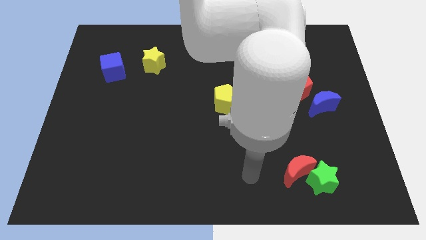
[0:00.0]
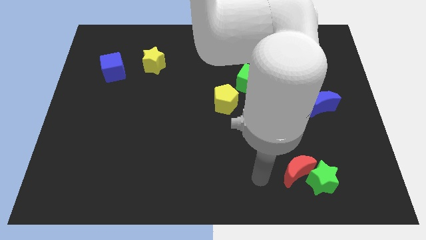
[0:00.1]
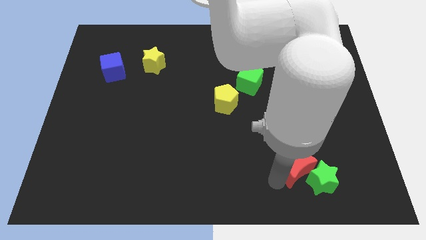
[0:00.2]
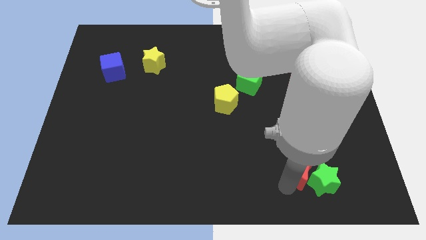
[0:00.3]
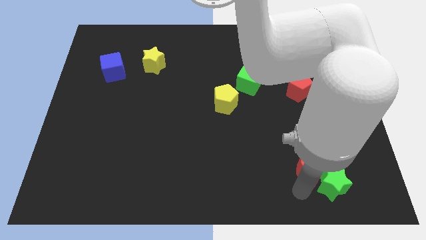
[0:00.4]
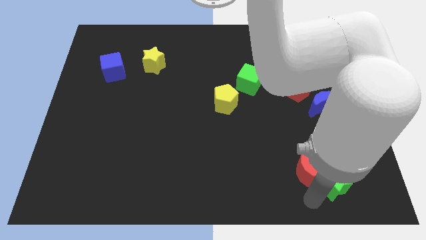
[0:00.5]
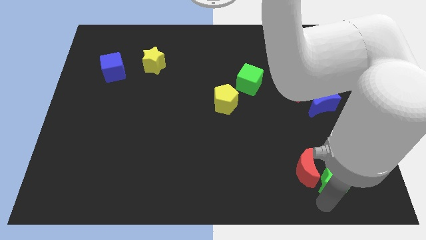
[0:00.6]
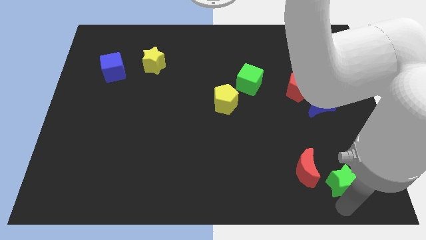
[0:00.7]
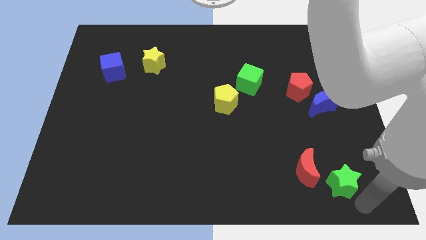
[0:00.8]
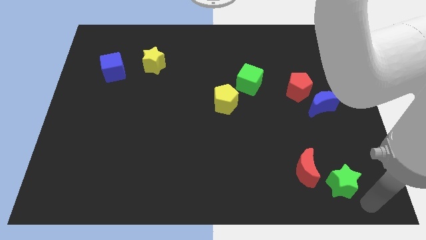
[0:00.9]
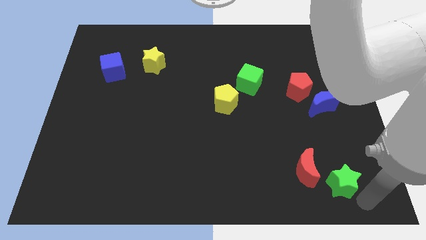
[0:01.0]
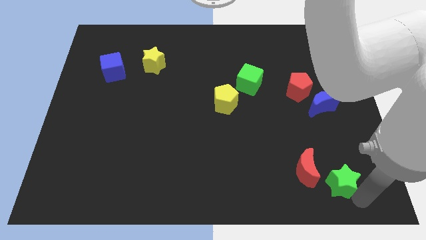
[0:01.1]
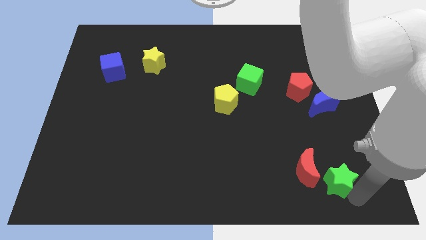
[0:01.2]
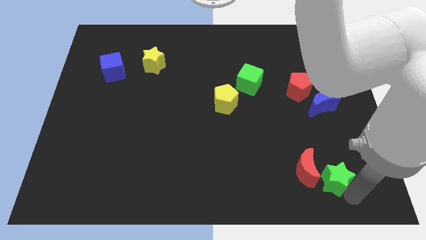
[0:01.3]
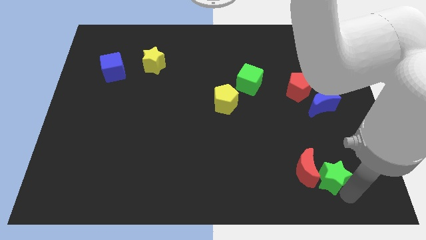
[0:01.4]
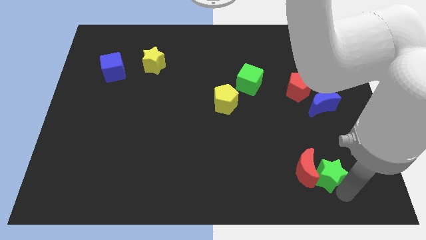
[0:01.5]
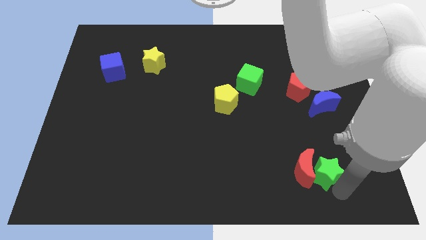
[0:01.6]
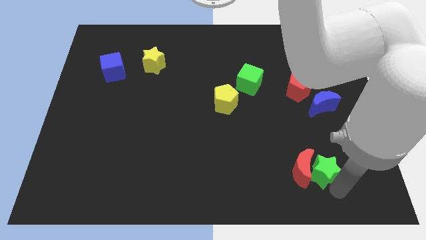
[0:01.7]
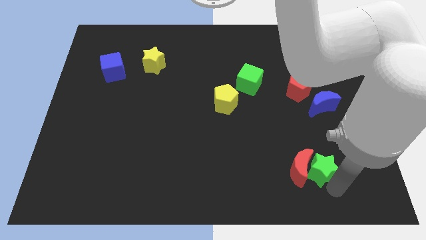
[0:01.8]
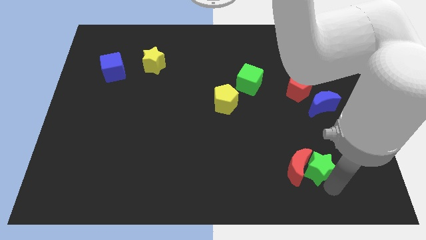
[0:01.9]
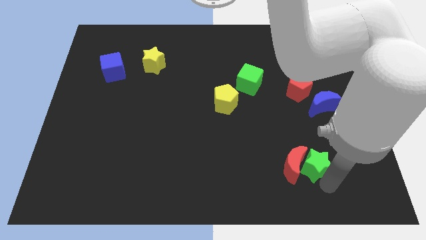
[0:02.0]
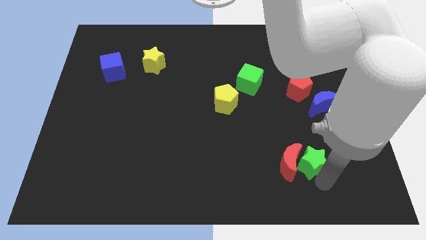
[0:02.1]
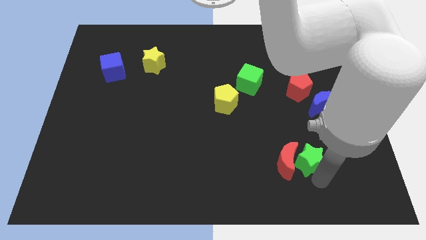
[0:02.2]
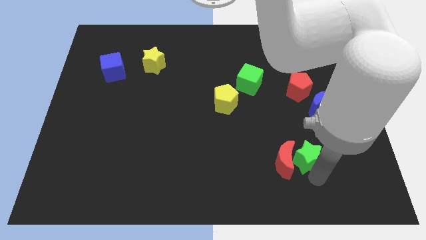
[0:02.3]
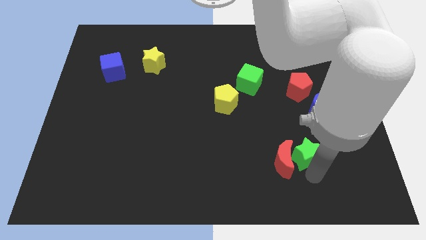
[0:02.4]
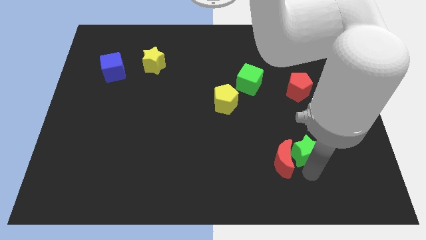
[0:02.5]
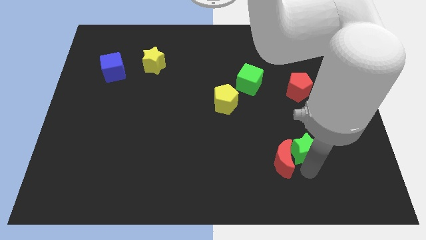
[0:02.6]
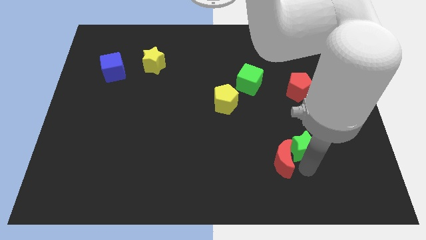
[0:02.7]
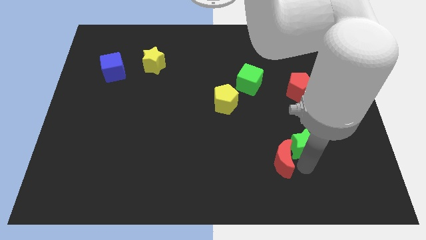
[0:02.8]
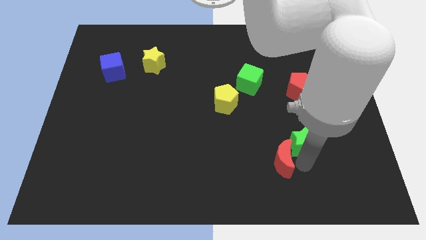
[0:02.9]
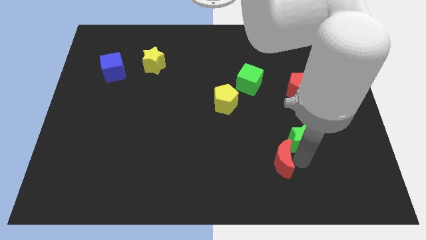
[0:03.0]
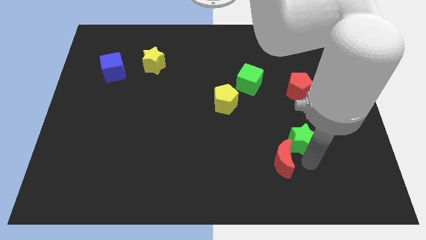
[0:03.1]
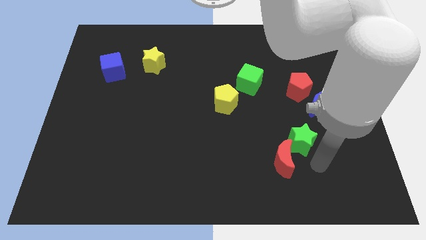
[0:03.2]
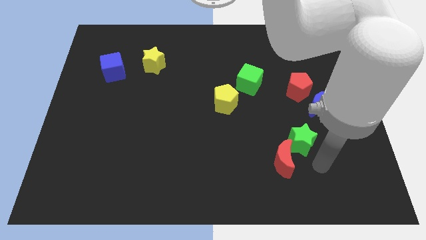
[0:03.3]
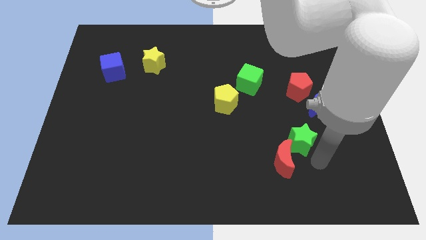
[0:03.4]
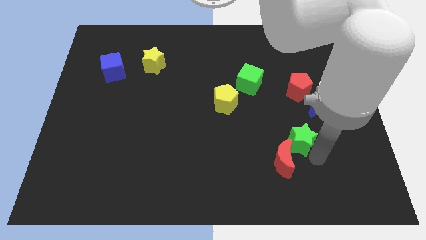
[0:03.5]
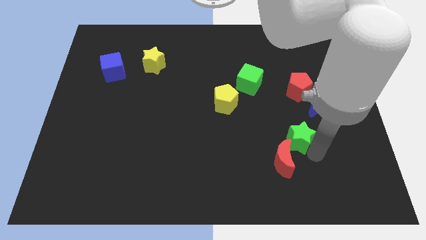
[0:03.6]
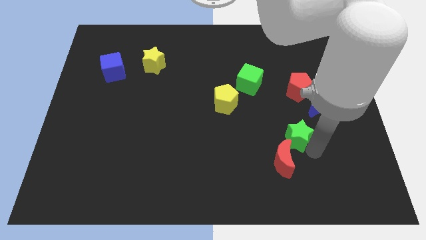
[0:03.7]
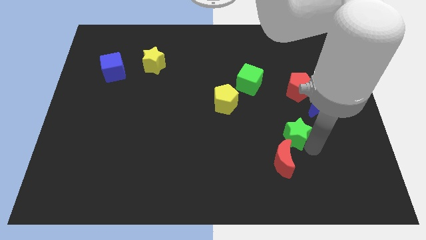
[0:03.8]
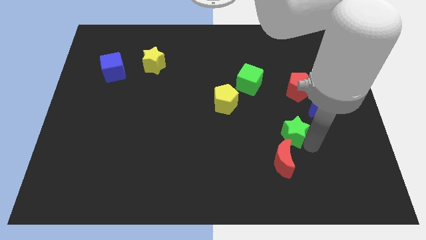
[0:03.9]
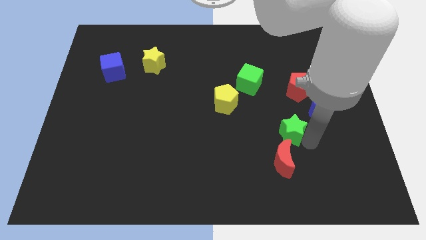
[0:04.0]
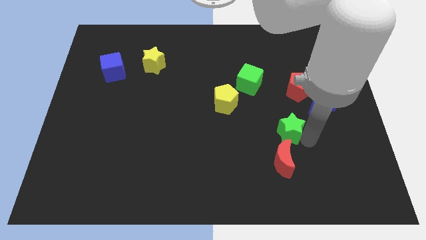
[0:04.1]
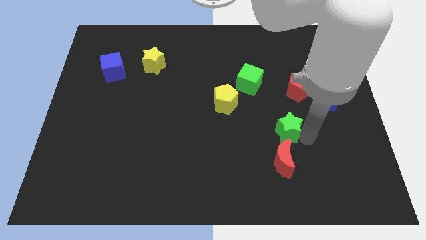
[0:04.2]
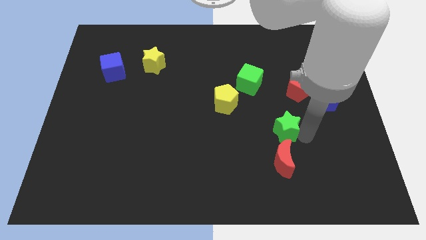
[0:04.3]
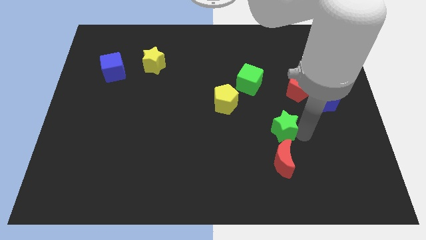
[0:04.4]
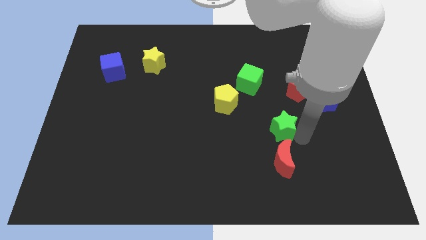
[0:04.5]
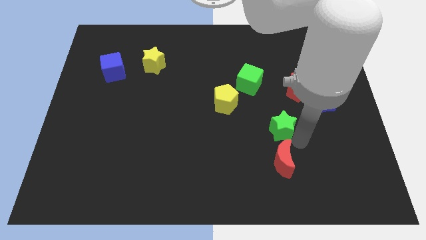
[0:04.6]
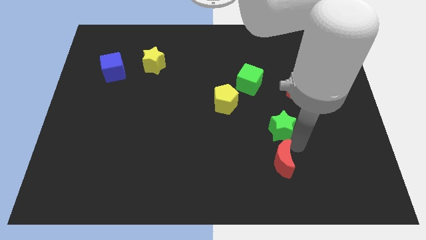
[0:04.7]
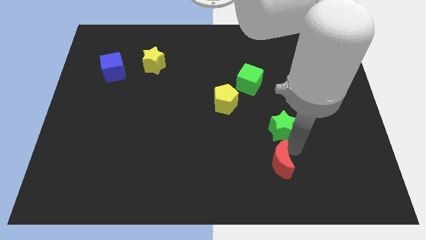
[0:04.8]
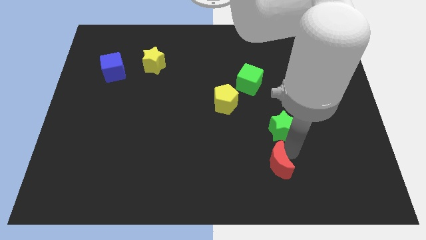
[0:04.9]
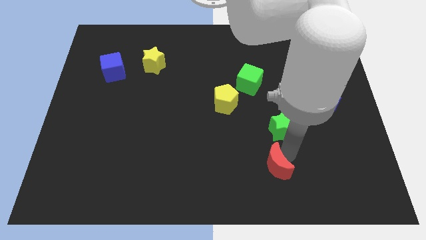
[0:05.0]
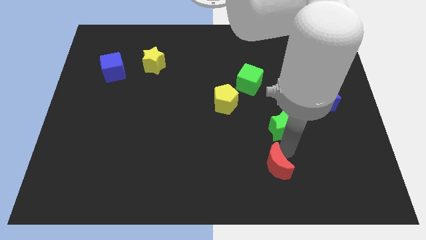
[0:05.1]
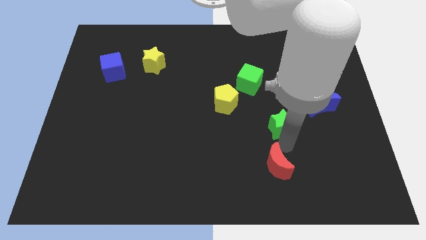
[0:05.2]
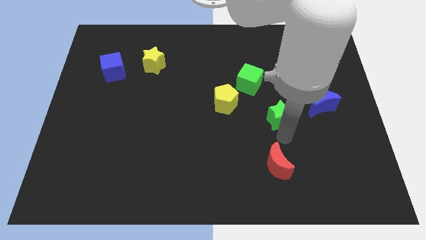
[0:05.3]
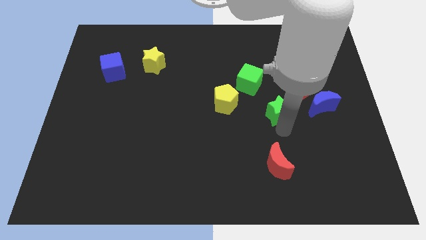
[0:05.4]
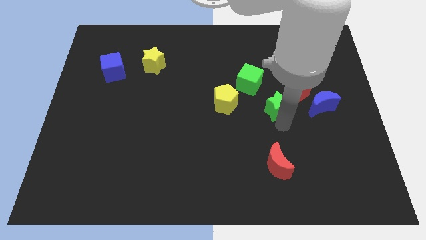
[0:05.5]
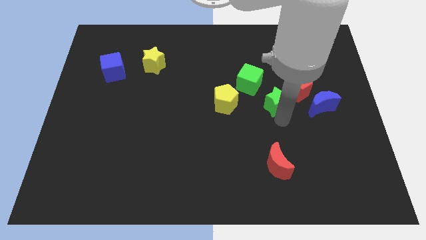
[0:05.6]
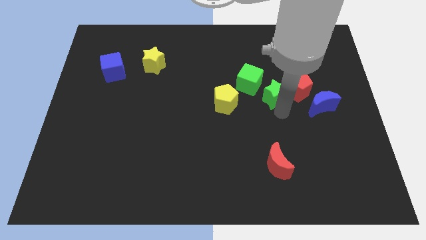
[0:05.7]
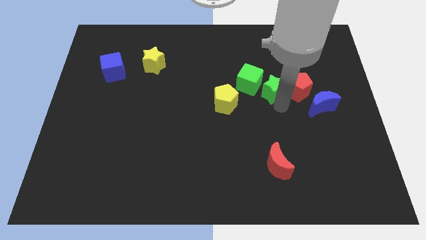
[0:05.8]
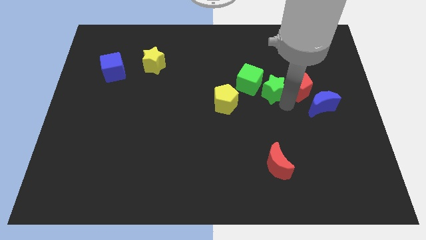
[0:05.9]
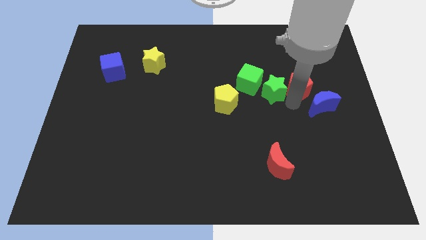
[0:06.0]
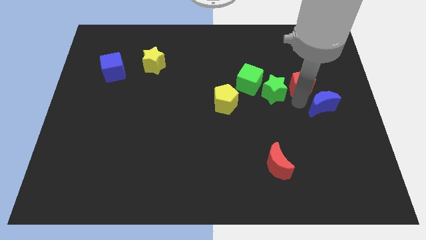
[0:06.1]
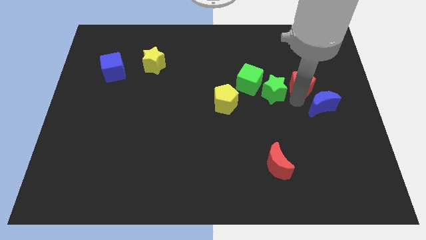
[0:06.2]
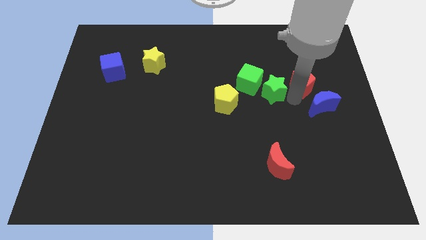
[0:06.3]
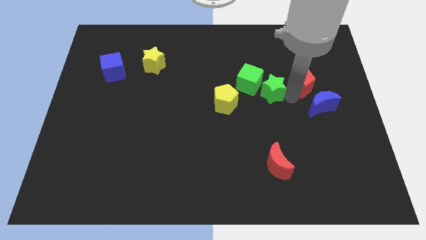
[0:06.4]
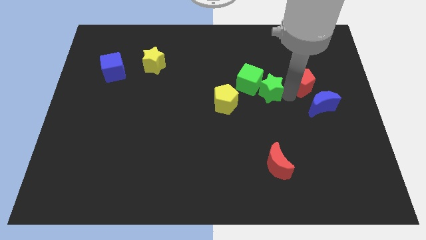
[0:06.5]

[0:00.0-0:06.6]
slide the green star to the green cube
